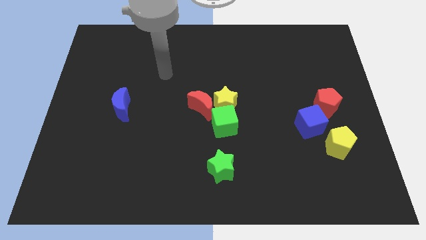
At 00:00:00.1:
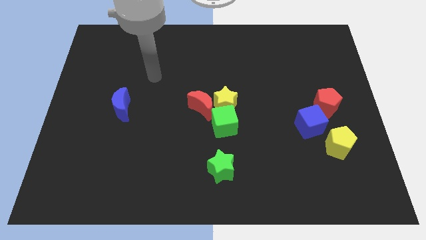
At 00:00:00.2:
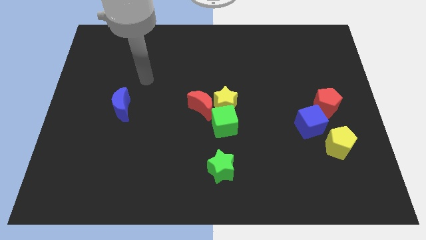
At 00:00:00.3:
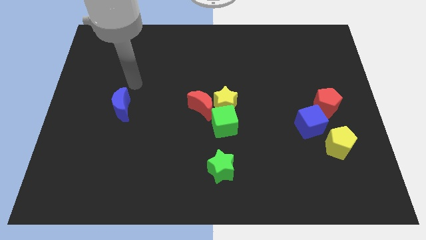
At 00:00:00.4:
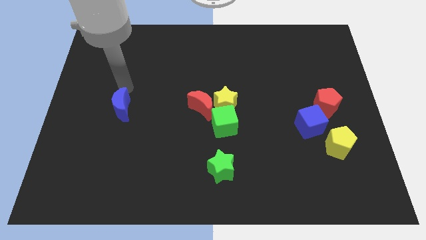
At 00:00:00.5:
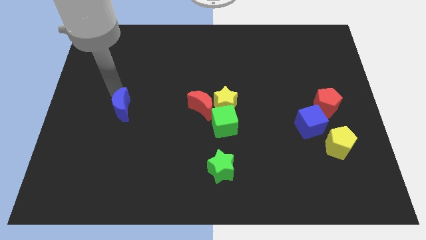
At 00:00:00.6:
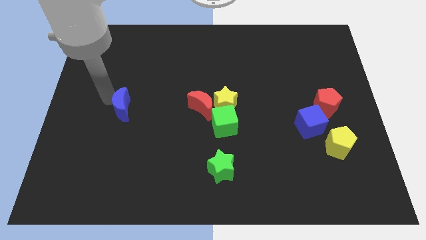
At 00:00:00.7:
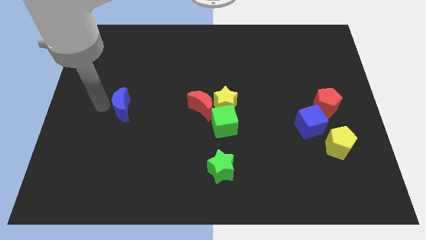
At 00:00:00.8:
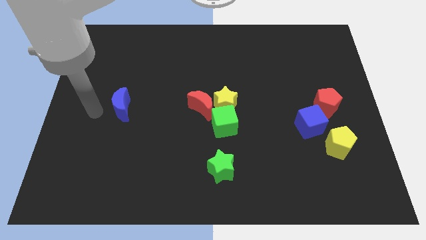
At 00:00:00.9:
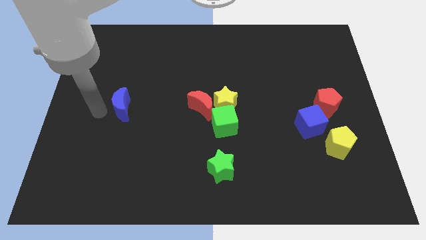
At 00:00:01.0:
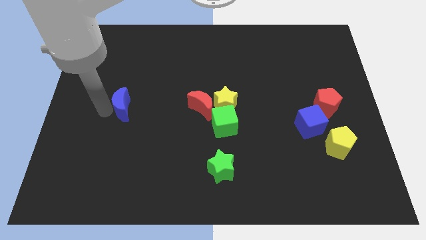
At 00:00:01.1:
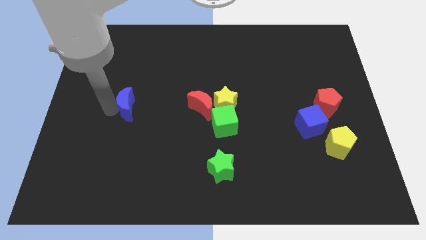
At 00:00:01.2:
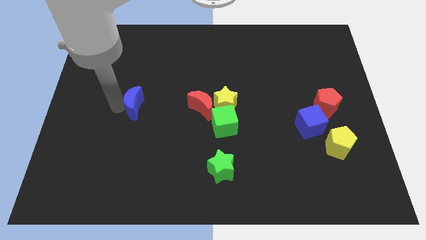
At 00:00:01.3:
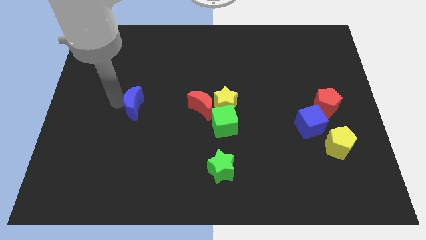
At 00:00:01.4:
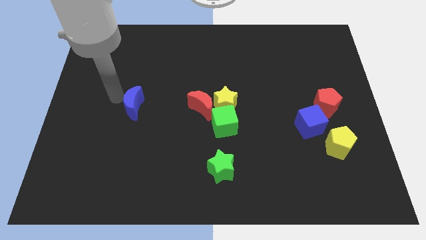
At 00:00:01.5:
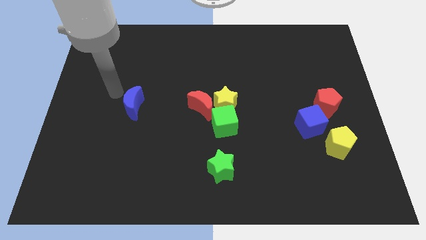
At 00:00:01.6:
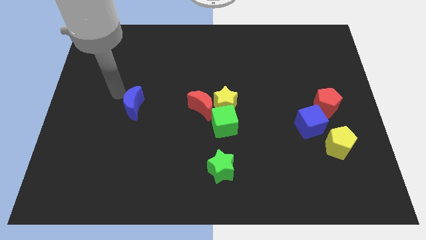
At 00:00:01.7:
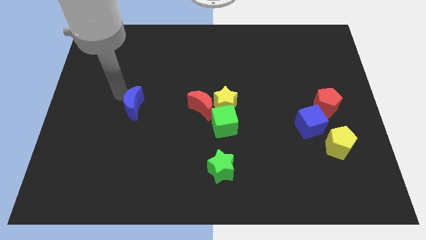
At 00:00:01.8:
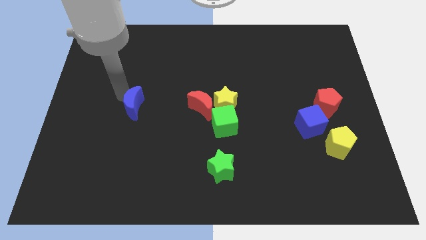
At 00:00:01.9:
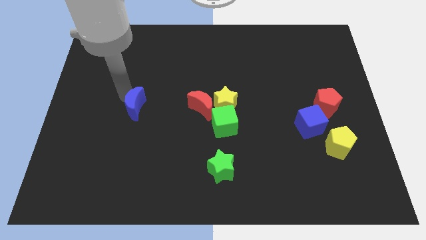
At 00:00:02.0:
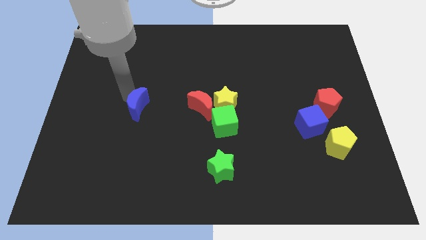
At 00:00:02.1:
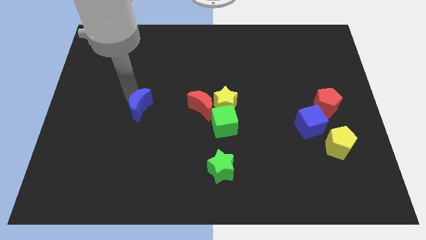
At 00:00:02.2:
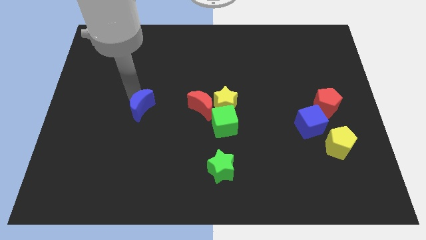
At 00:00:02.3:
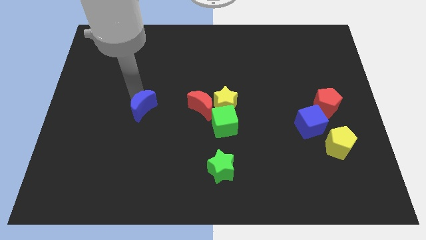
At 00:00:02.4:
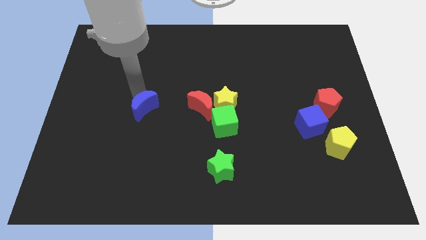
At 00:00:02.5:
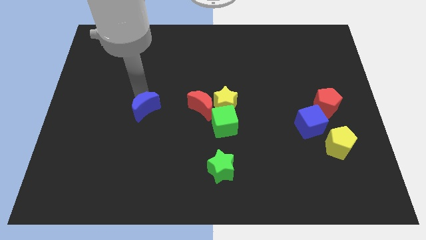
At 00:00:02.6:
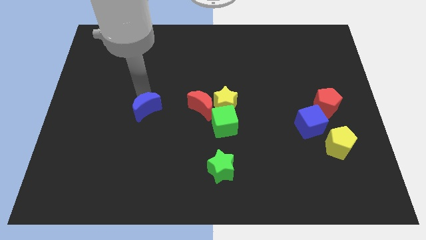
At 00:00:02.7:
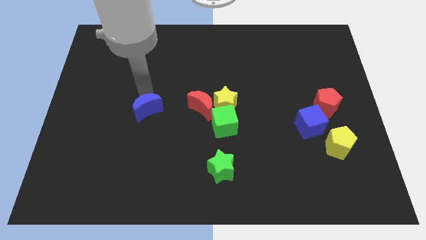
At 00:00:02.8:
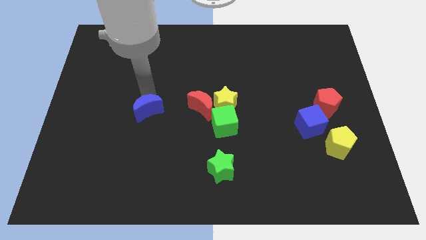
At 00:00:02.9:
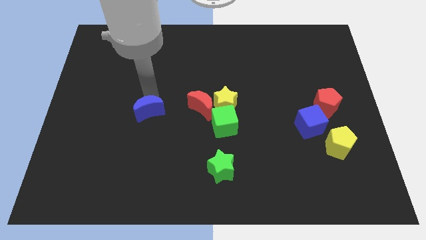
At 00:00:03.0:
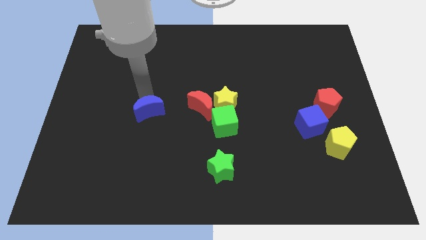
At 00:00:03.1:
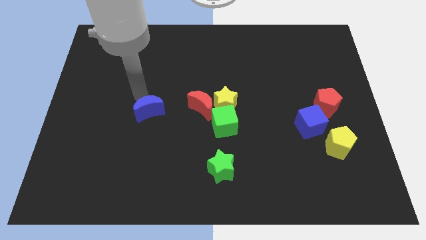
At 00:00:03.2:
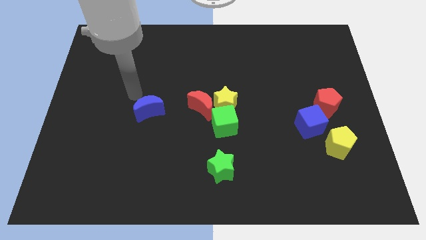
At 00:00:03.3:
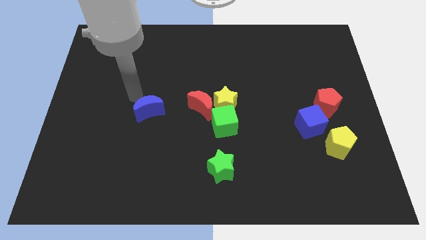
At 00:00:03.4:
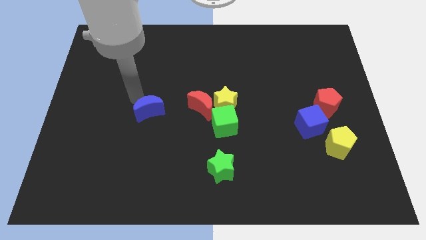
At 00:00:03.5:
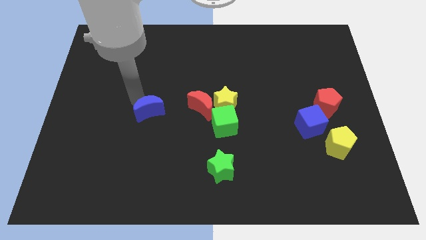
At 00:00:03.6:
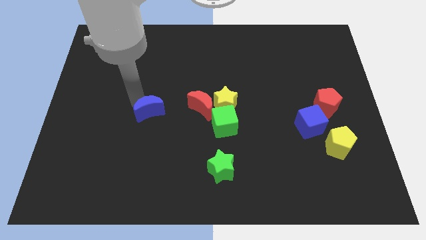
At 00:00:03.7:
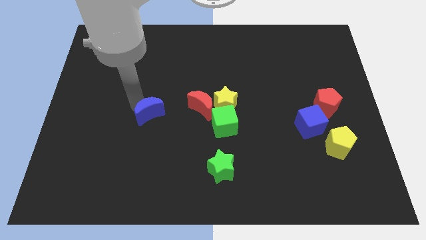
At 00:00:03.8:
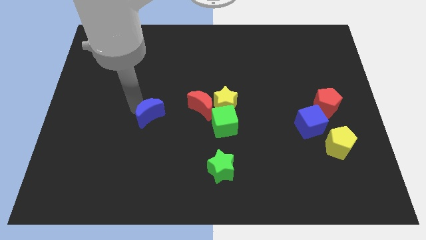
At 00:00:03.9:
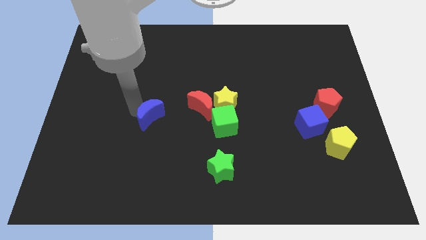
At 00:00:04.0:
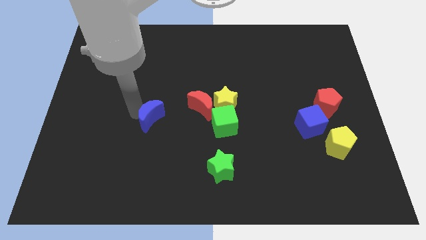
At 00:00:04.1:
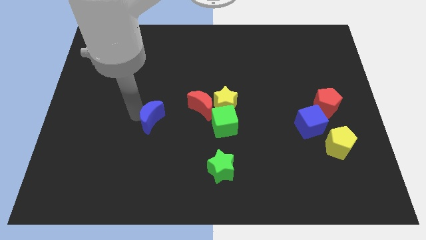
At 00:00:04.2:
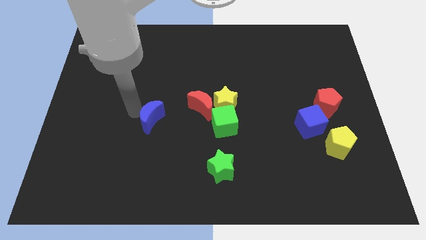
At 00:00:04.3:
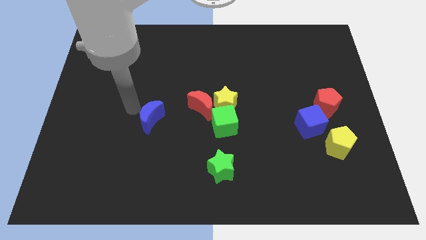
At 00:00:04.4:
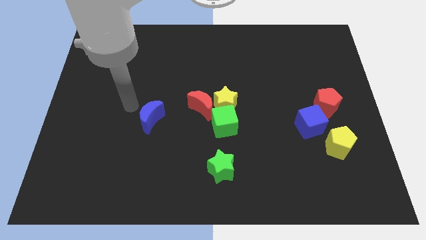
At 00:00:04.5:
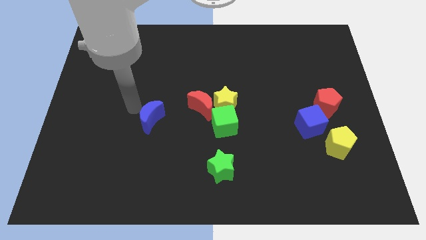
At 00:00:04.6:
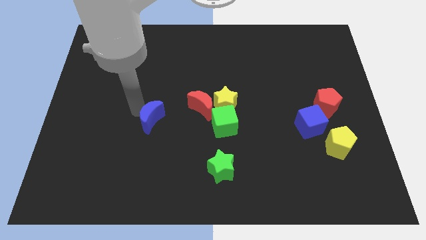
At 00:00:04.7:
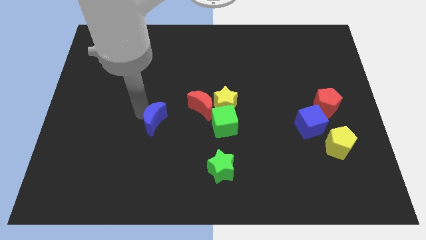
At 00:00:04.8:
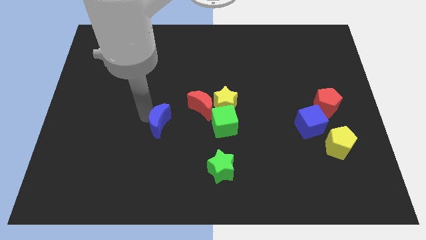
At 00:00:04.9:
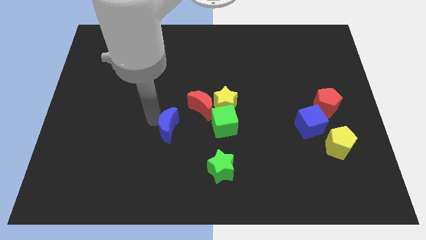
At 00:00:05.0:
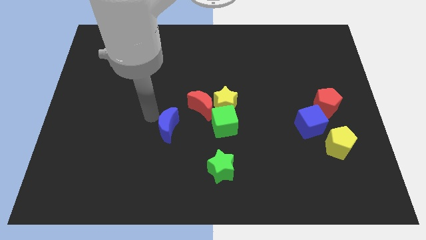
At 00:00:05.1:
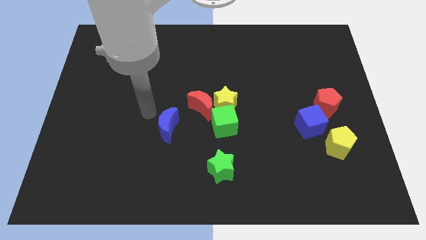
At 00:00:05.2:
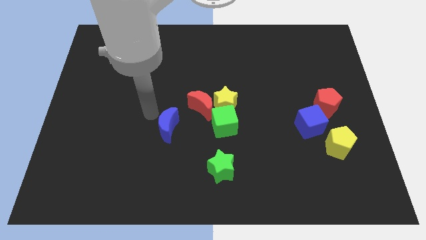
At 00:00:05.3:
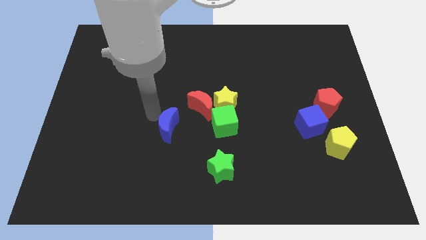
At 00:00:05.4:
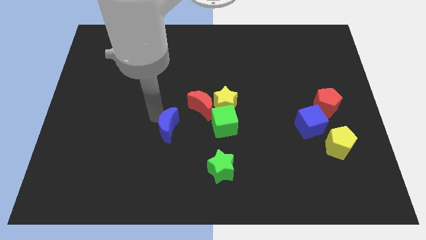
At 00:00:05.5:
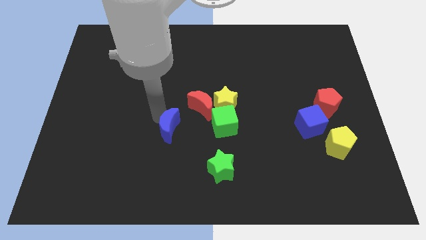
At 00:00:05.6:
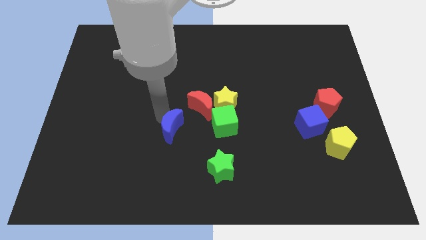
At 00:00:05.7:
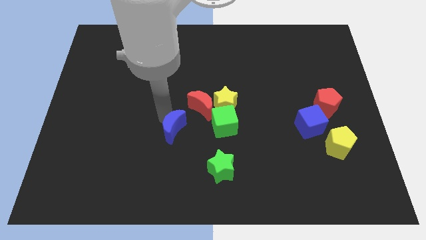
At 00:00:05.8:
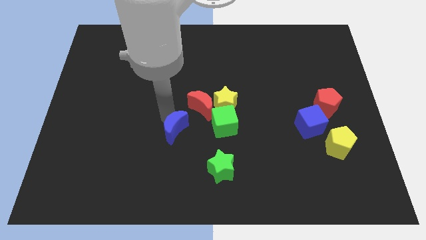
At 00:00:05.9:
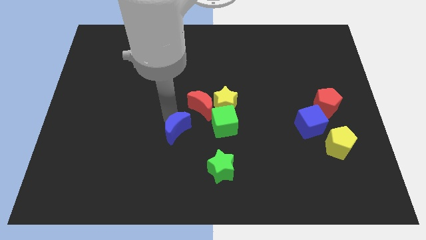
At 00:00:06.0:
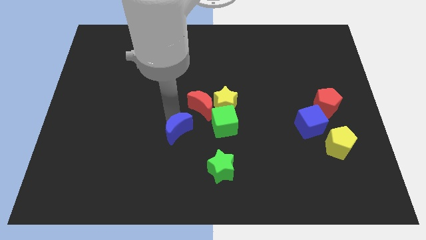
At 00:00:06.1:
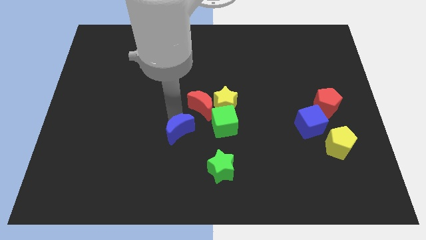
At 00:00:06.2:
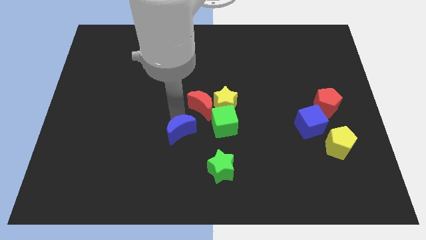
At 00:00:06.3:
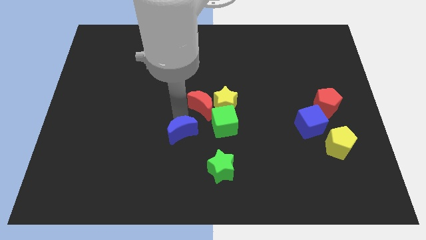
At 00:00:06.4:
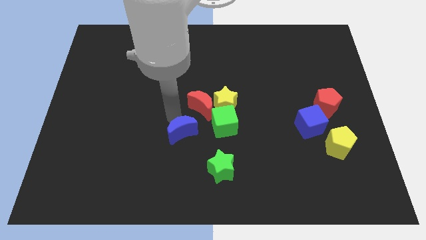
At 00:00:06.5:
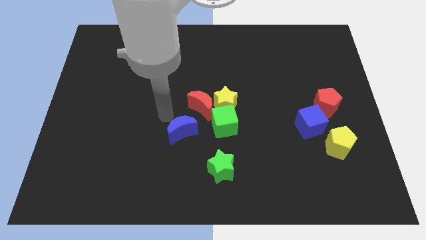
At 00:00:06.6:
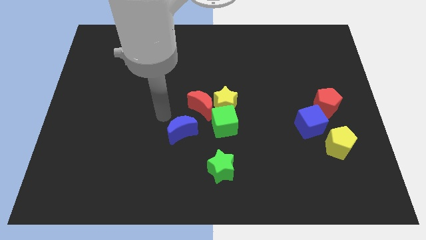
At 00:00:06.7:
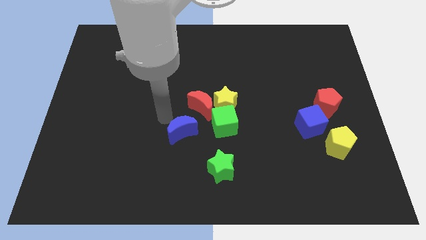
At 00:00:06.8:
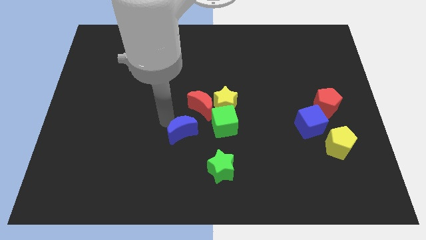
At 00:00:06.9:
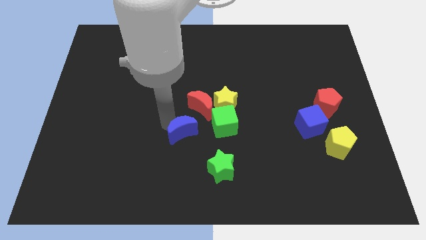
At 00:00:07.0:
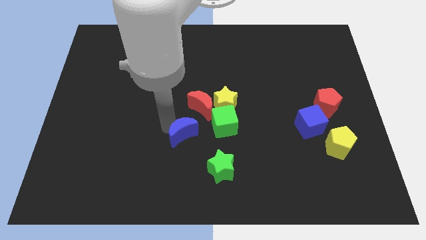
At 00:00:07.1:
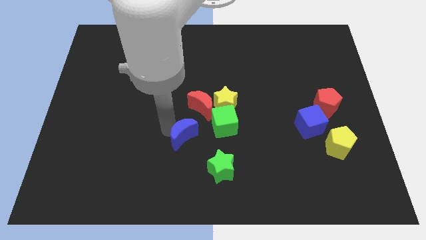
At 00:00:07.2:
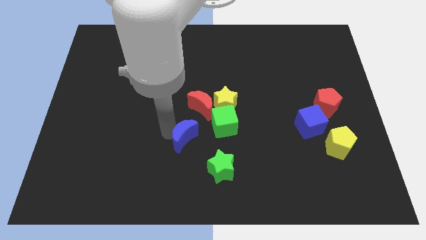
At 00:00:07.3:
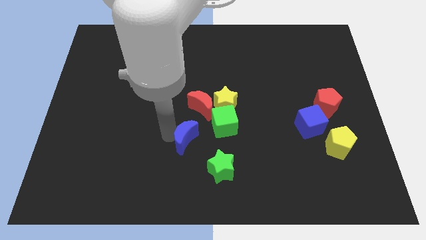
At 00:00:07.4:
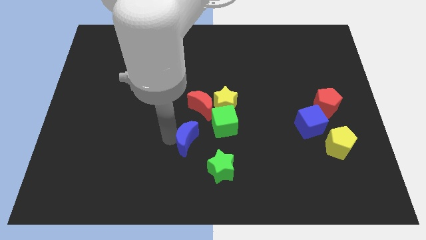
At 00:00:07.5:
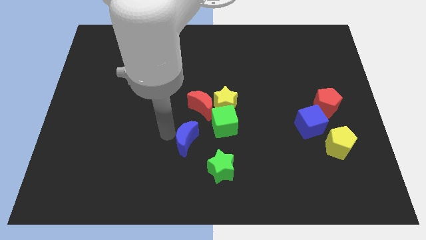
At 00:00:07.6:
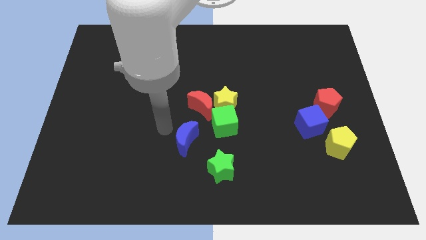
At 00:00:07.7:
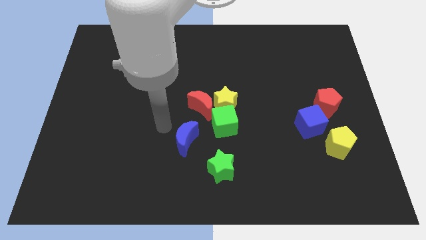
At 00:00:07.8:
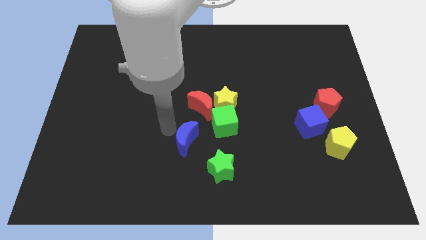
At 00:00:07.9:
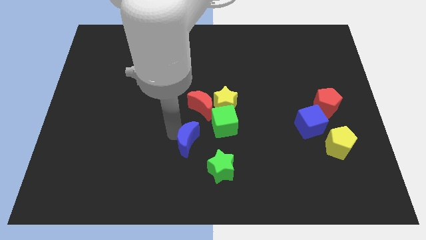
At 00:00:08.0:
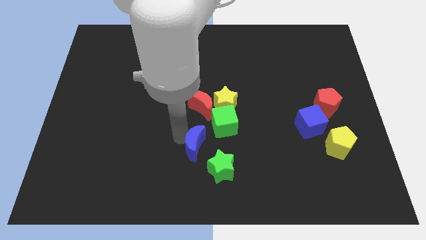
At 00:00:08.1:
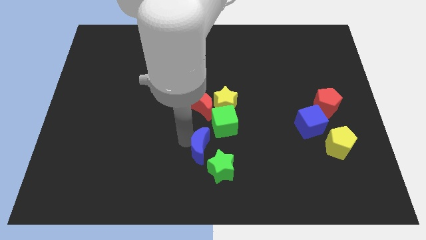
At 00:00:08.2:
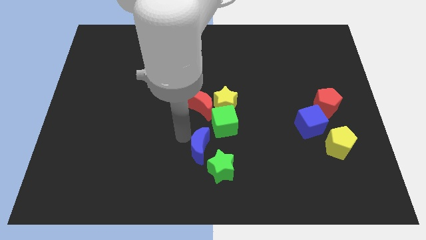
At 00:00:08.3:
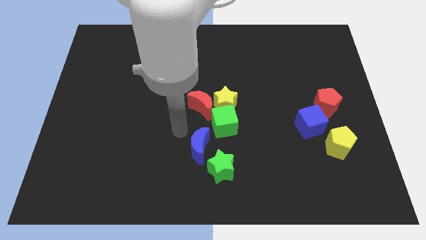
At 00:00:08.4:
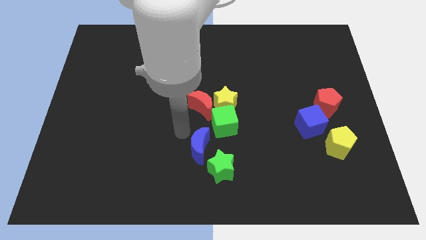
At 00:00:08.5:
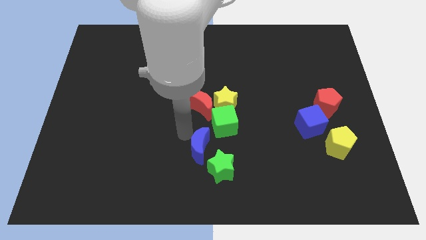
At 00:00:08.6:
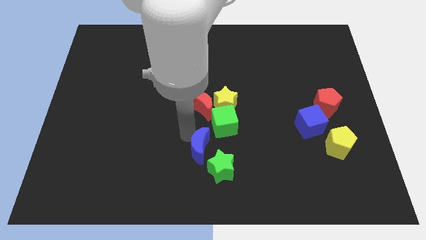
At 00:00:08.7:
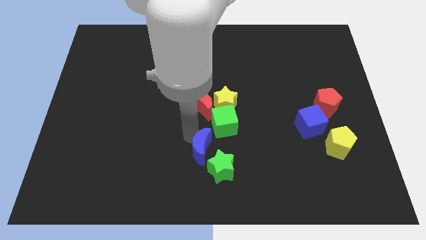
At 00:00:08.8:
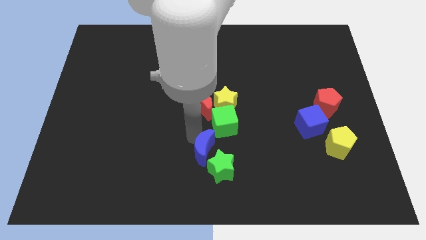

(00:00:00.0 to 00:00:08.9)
put the blue moon towards the green star
